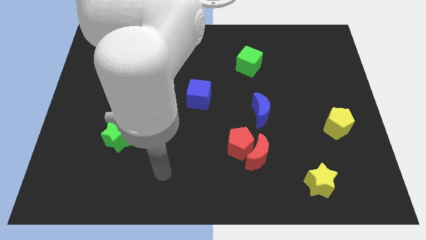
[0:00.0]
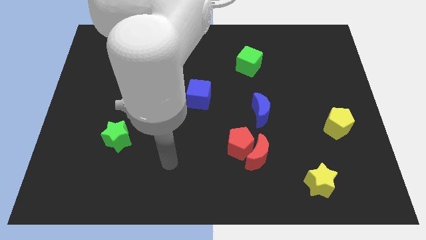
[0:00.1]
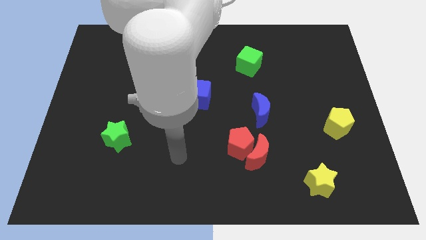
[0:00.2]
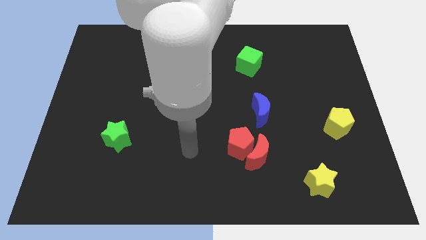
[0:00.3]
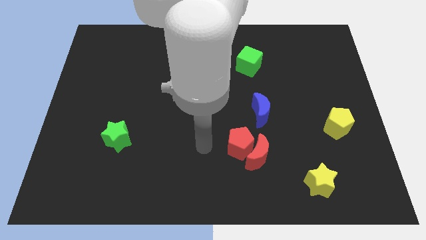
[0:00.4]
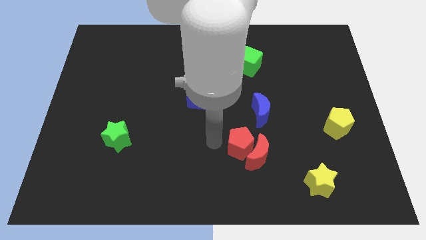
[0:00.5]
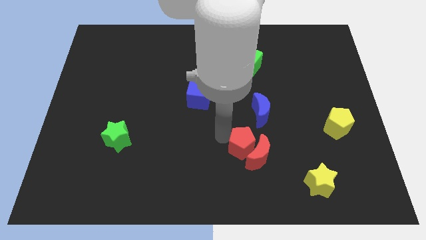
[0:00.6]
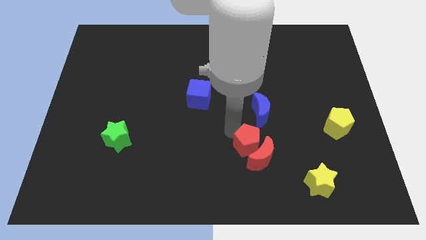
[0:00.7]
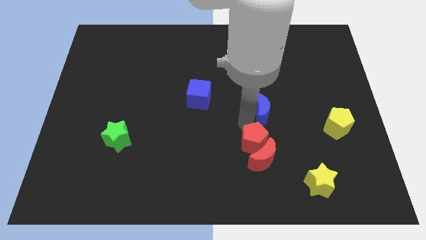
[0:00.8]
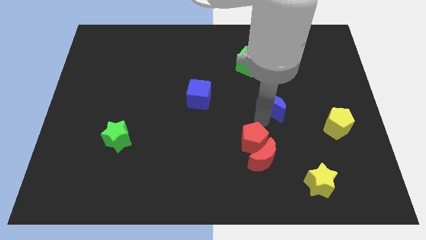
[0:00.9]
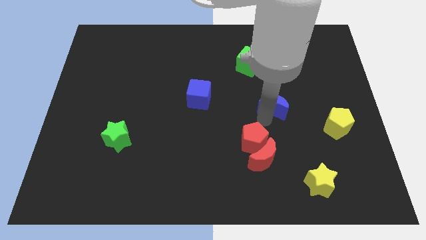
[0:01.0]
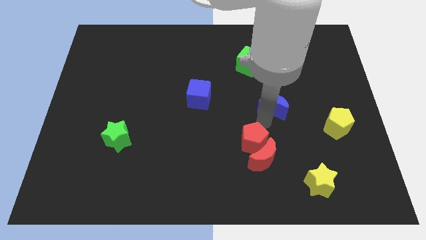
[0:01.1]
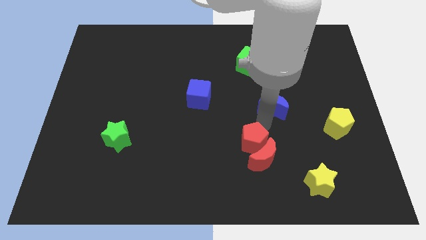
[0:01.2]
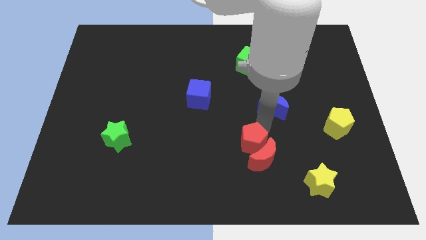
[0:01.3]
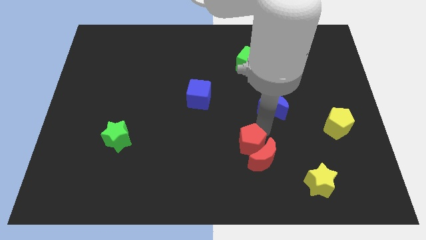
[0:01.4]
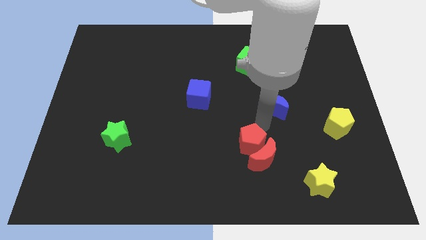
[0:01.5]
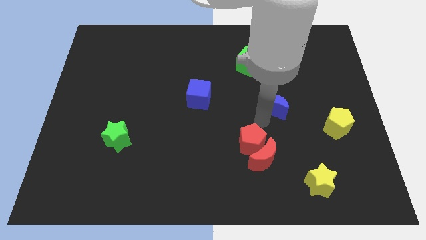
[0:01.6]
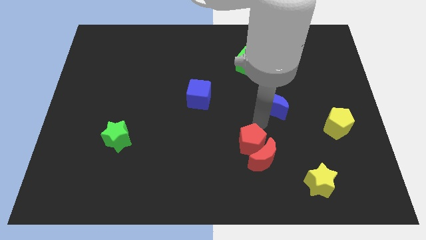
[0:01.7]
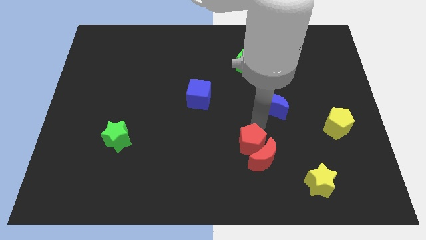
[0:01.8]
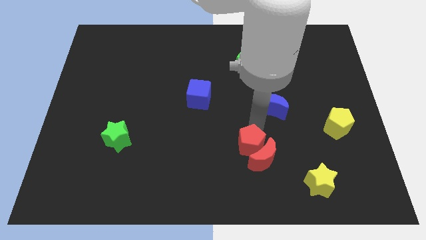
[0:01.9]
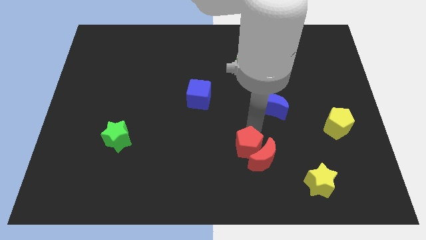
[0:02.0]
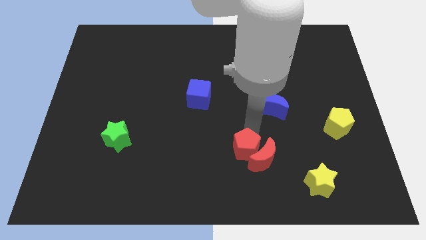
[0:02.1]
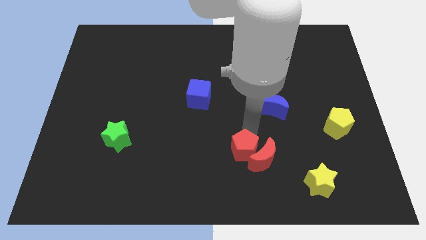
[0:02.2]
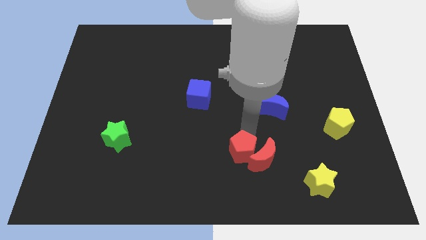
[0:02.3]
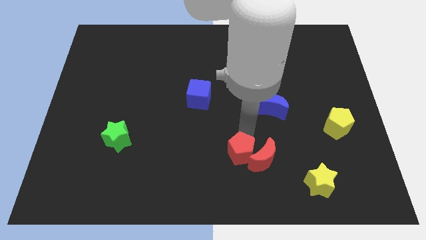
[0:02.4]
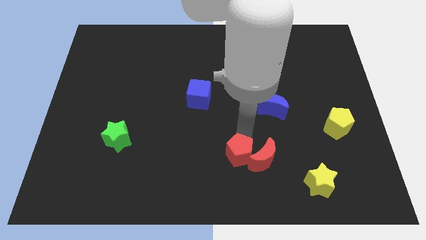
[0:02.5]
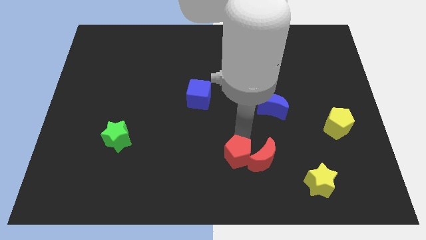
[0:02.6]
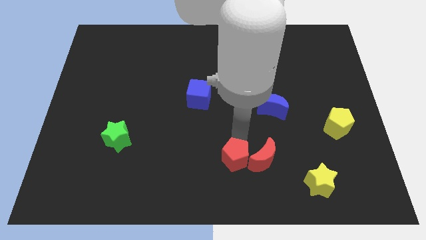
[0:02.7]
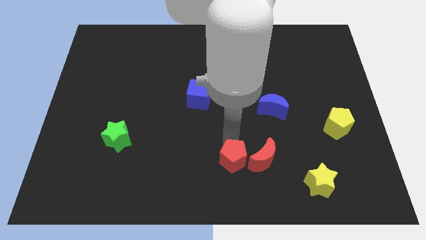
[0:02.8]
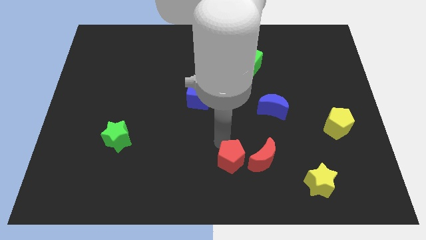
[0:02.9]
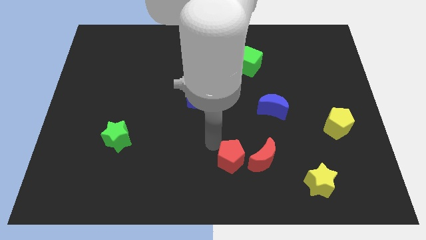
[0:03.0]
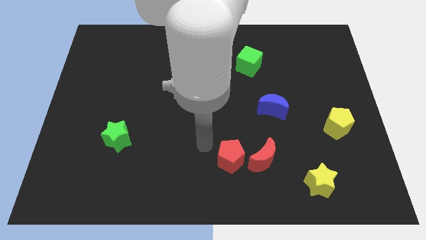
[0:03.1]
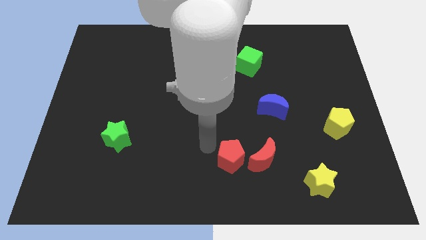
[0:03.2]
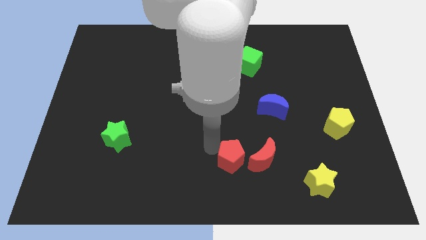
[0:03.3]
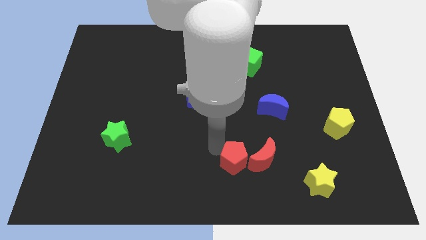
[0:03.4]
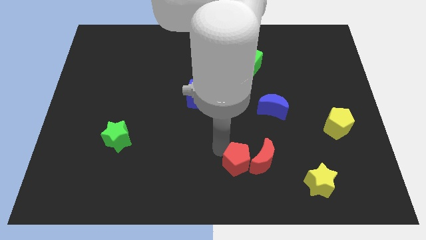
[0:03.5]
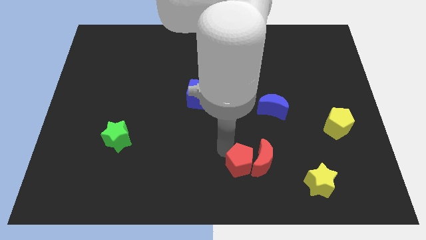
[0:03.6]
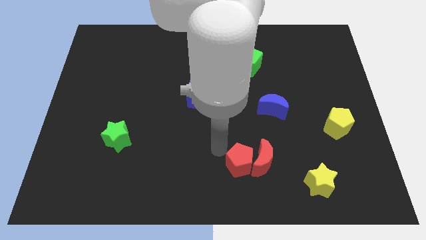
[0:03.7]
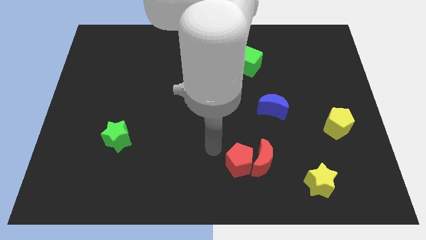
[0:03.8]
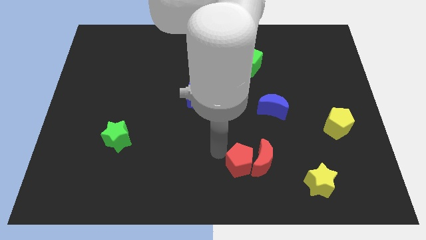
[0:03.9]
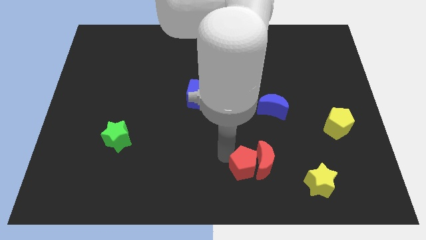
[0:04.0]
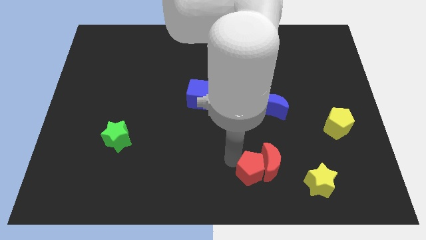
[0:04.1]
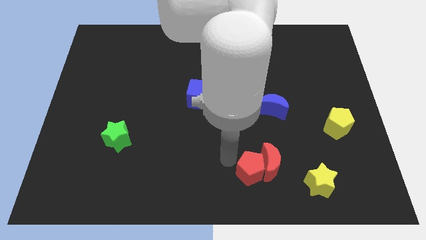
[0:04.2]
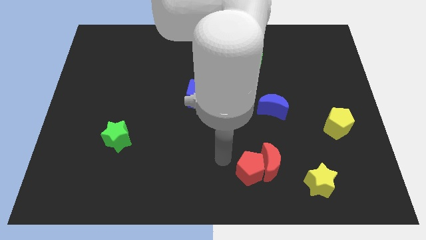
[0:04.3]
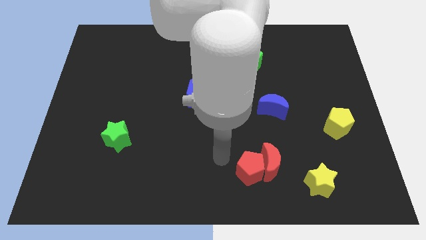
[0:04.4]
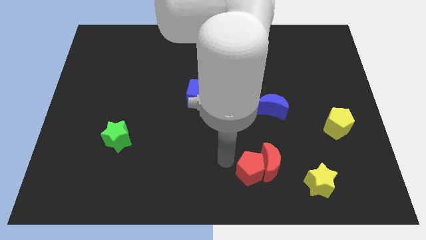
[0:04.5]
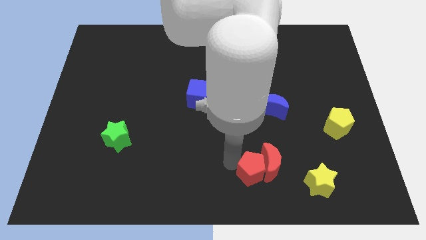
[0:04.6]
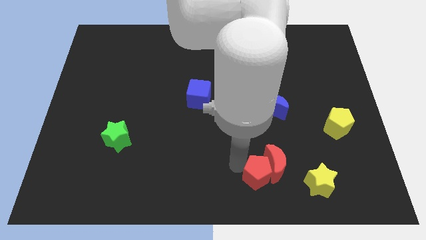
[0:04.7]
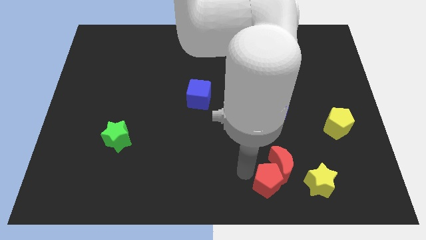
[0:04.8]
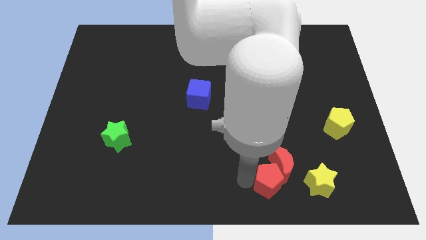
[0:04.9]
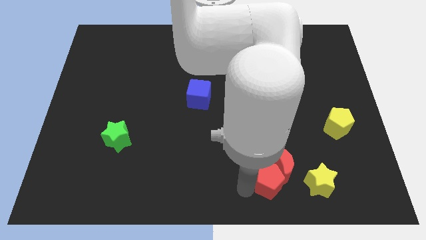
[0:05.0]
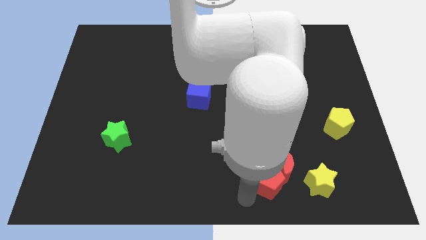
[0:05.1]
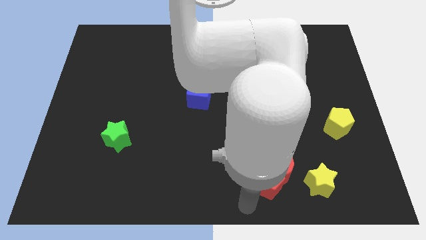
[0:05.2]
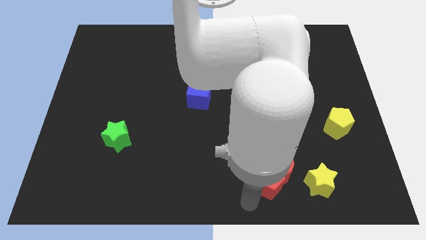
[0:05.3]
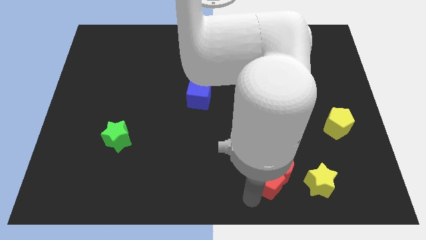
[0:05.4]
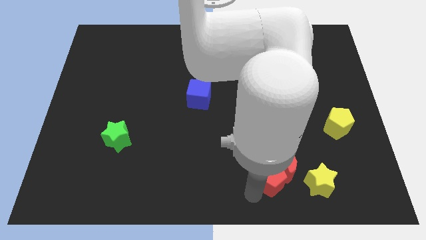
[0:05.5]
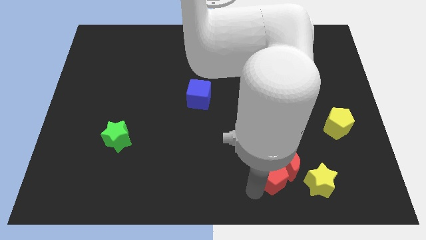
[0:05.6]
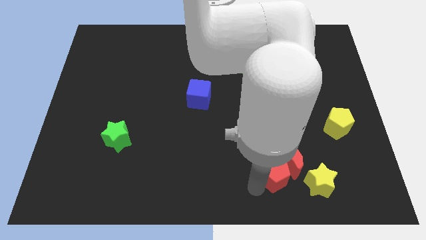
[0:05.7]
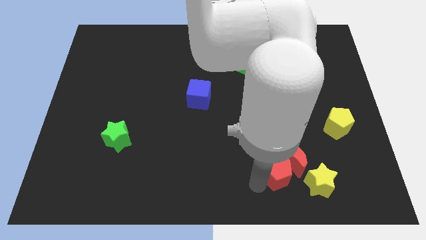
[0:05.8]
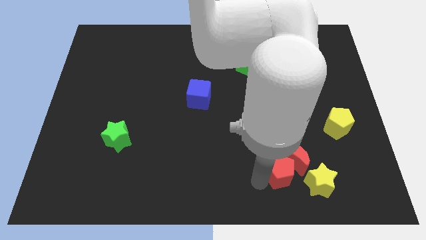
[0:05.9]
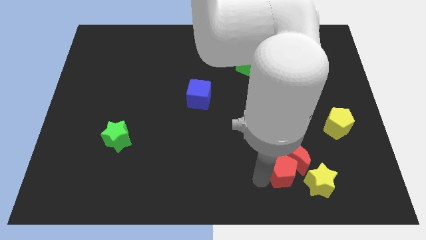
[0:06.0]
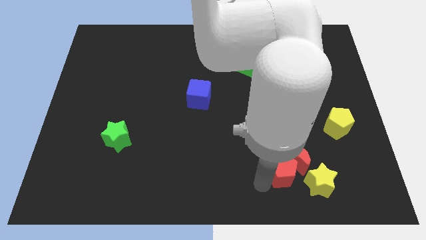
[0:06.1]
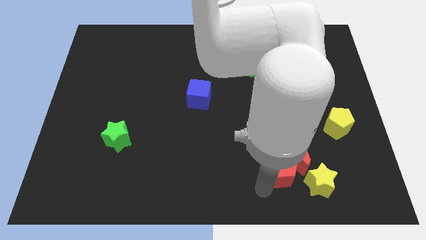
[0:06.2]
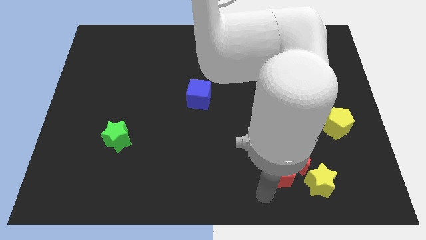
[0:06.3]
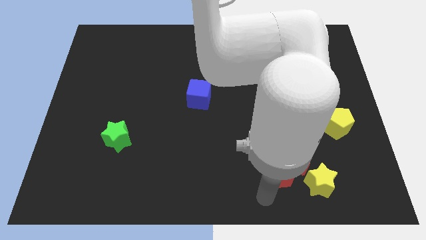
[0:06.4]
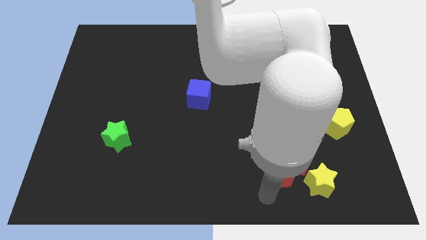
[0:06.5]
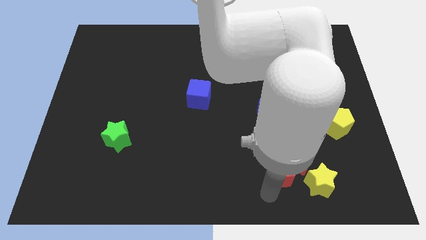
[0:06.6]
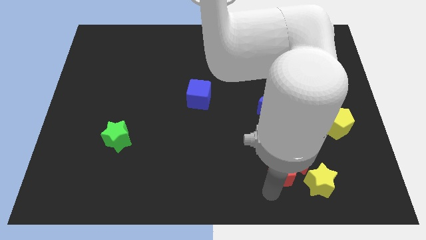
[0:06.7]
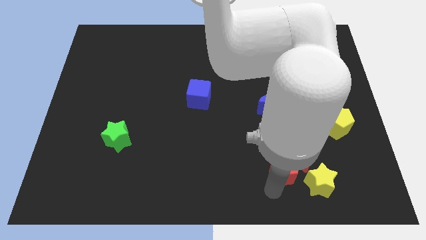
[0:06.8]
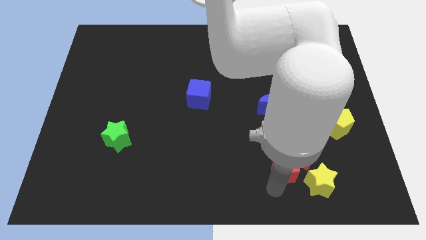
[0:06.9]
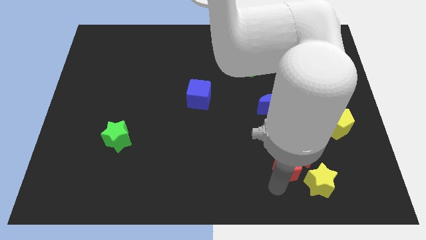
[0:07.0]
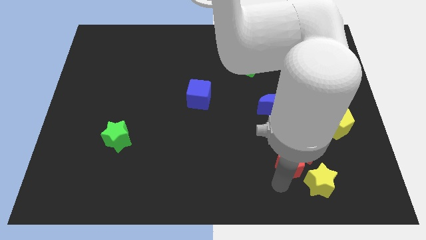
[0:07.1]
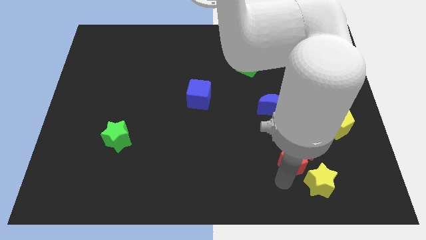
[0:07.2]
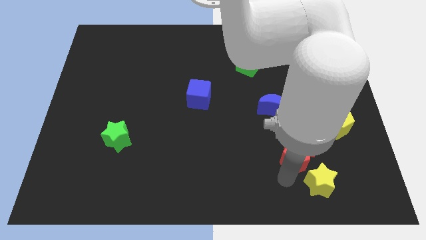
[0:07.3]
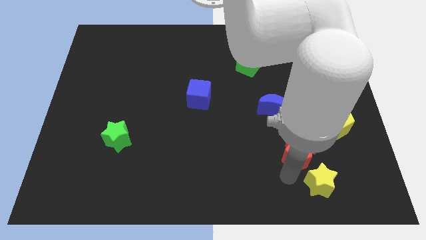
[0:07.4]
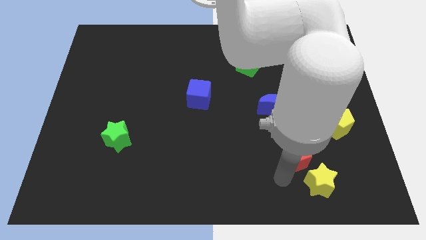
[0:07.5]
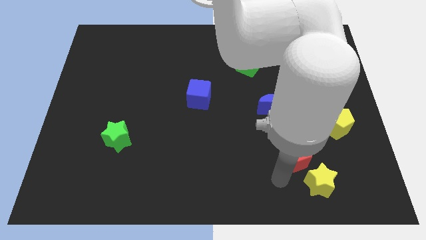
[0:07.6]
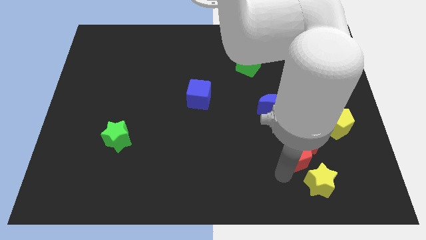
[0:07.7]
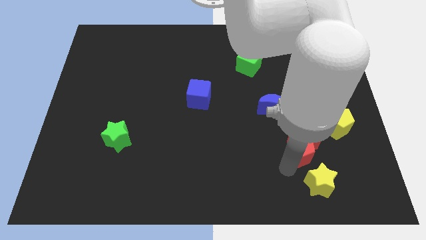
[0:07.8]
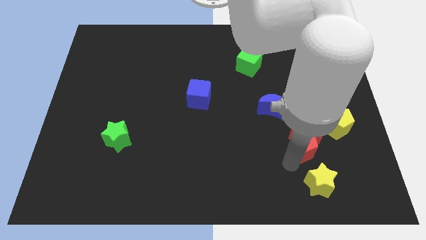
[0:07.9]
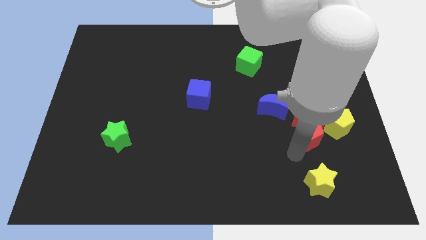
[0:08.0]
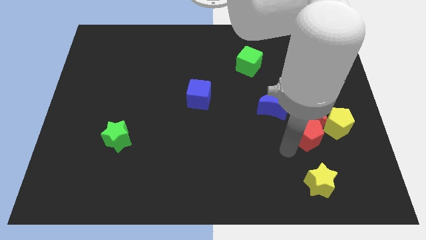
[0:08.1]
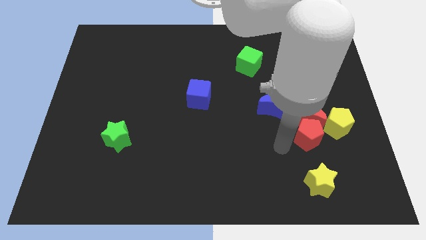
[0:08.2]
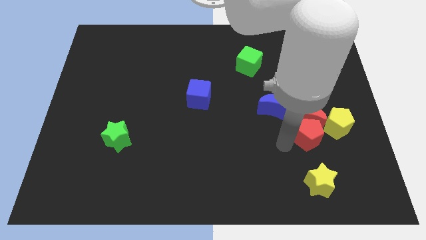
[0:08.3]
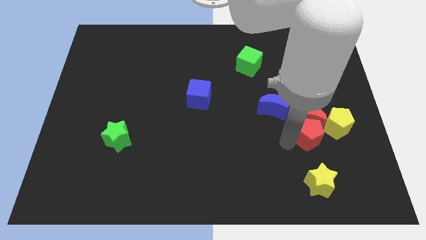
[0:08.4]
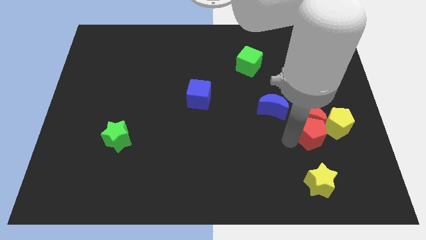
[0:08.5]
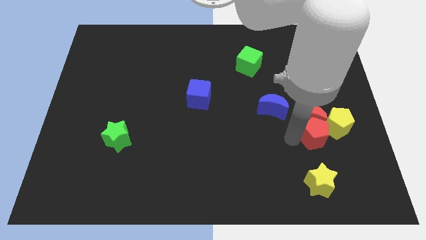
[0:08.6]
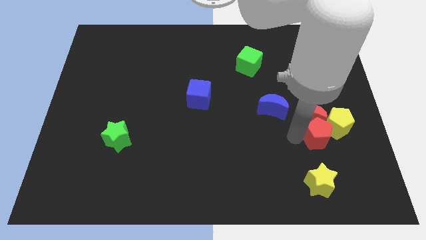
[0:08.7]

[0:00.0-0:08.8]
put the red pentagon close to the yellow pentagon
